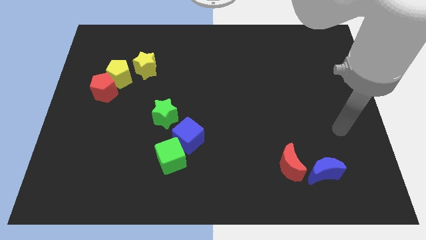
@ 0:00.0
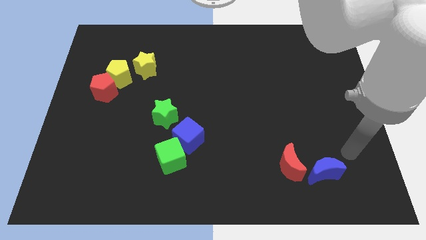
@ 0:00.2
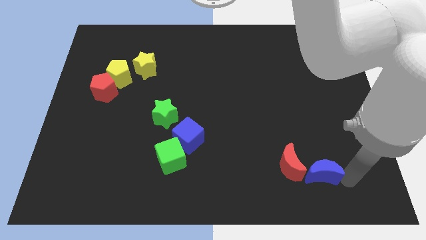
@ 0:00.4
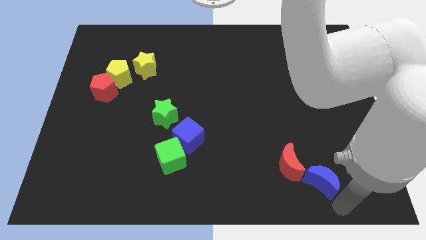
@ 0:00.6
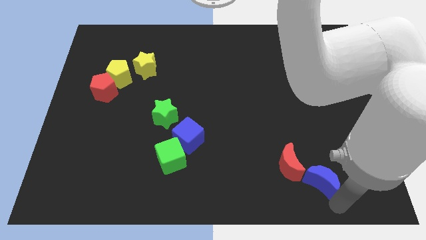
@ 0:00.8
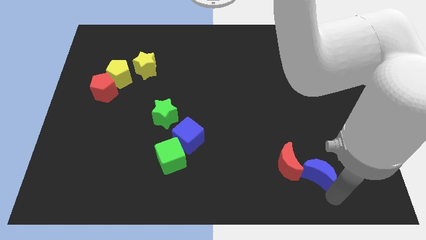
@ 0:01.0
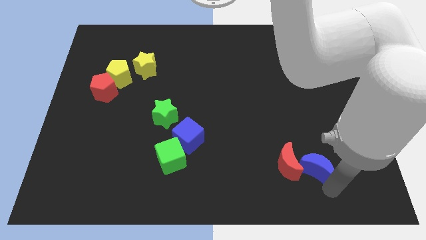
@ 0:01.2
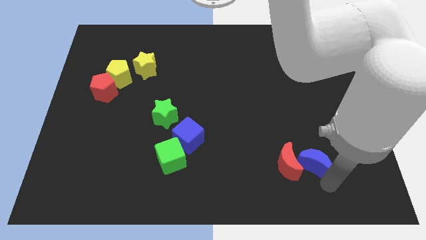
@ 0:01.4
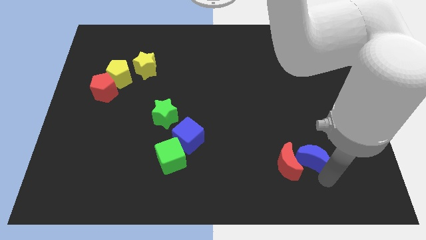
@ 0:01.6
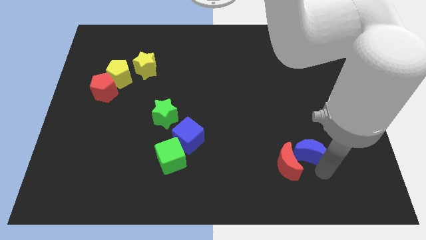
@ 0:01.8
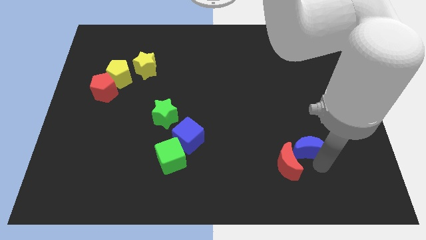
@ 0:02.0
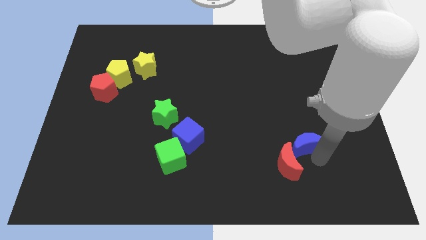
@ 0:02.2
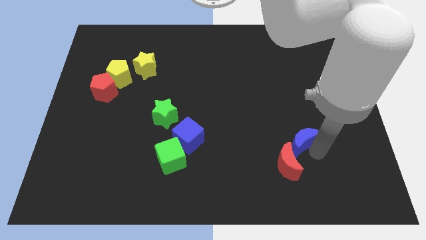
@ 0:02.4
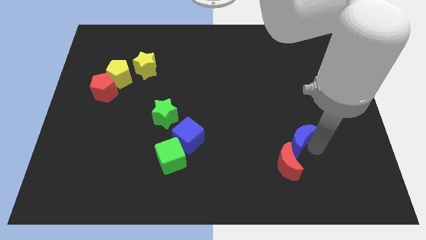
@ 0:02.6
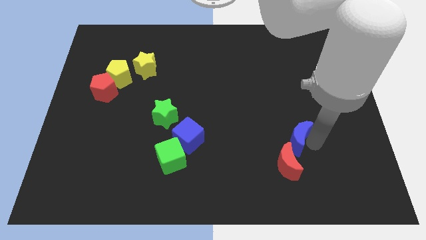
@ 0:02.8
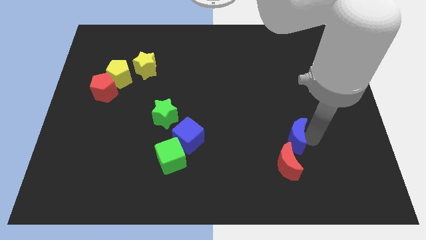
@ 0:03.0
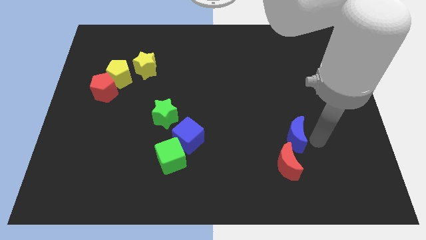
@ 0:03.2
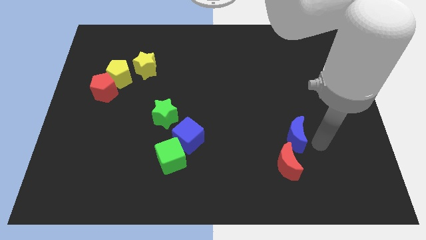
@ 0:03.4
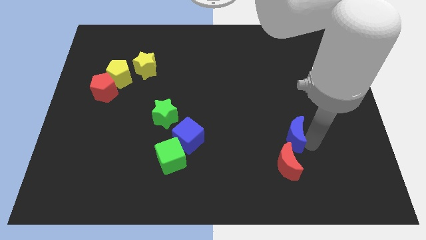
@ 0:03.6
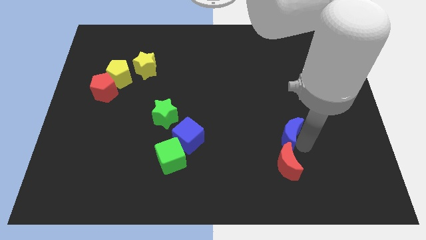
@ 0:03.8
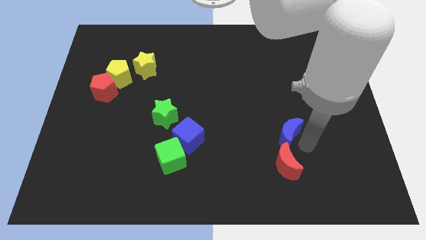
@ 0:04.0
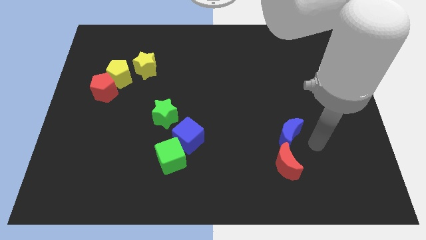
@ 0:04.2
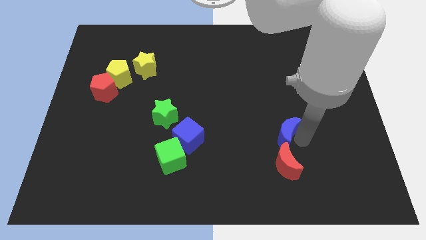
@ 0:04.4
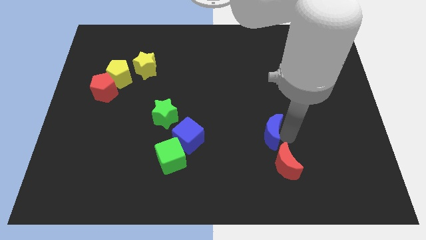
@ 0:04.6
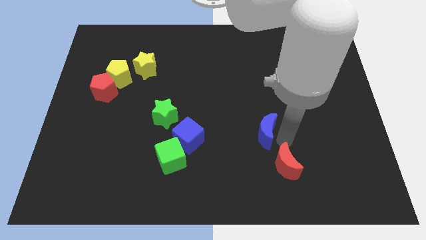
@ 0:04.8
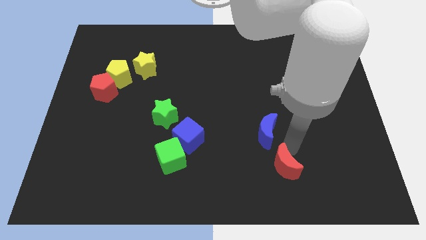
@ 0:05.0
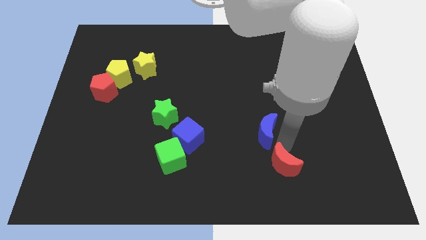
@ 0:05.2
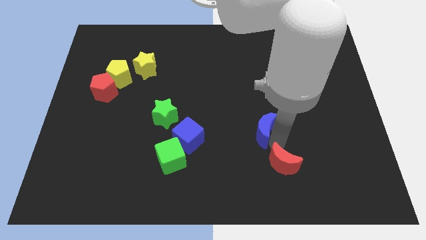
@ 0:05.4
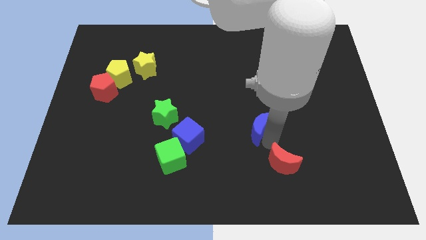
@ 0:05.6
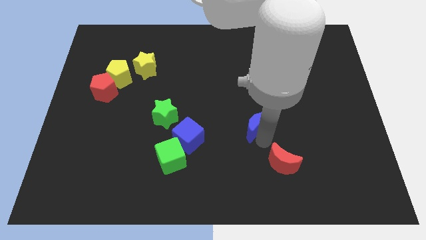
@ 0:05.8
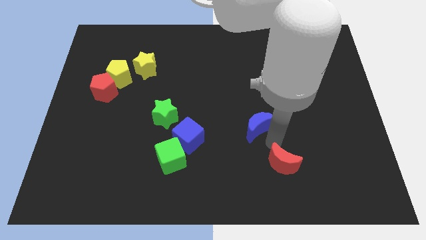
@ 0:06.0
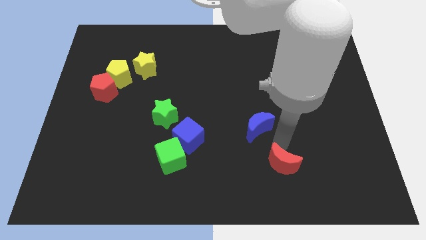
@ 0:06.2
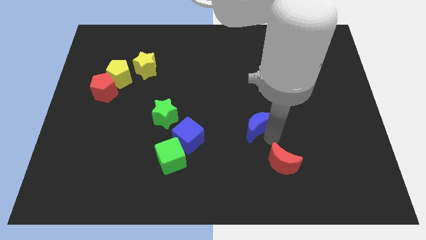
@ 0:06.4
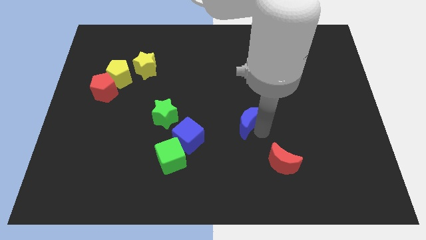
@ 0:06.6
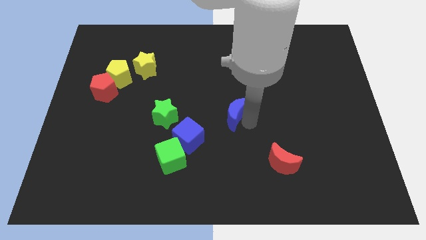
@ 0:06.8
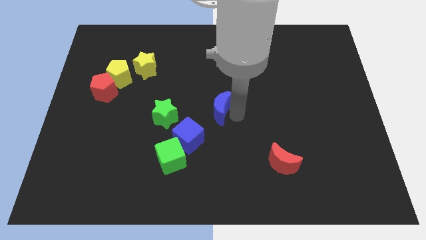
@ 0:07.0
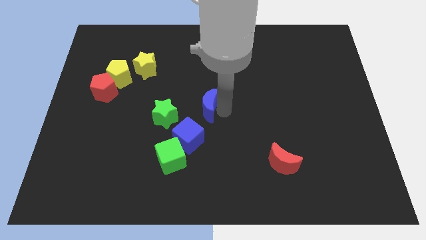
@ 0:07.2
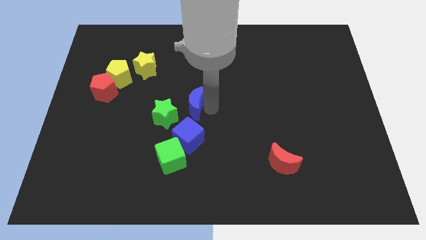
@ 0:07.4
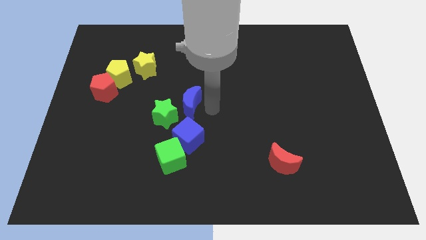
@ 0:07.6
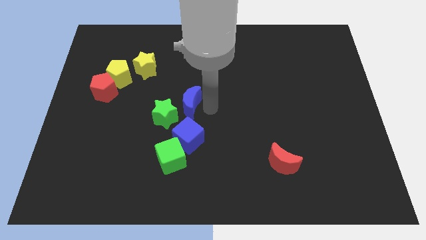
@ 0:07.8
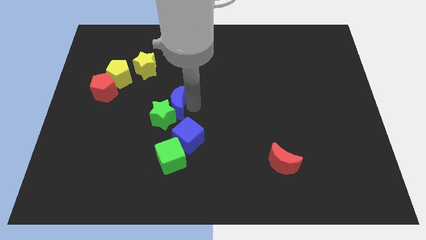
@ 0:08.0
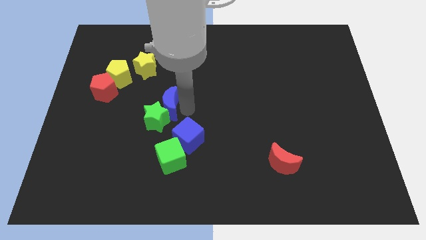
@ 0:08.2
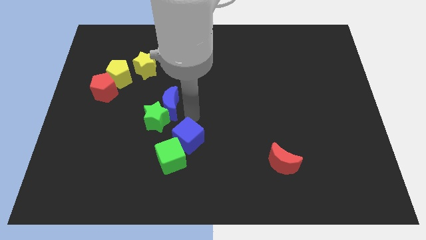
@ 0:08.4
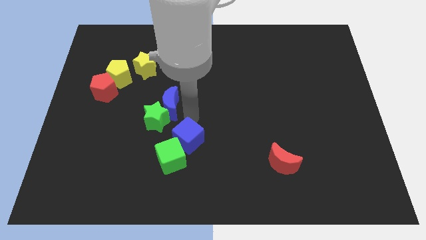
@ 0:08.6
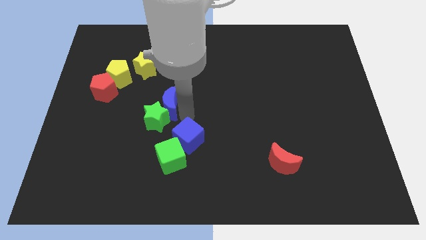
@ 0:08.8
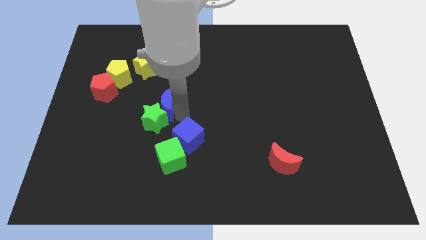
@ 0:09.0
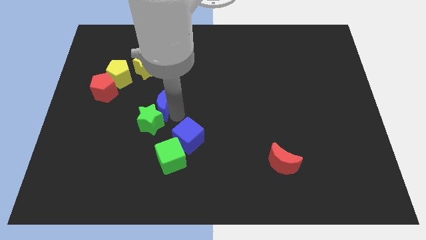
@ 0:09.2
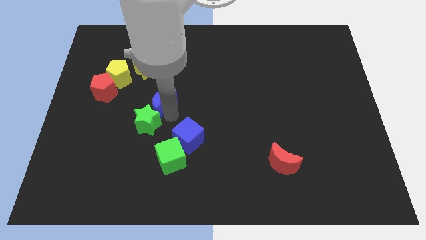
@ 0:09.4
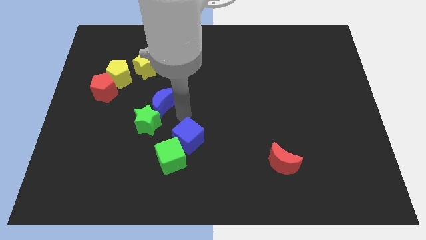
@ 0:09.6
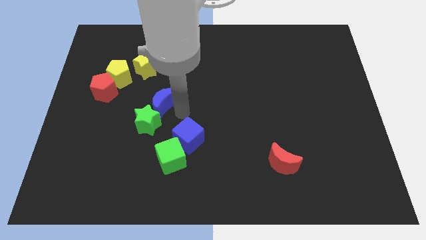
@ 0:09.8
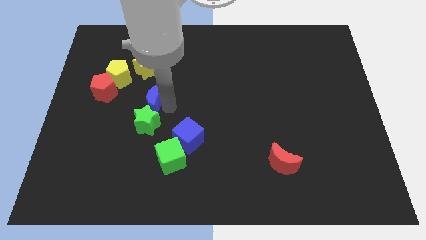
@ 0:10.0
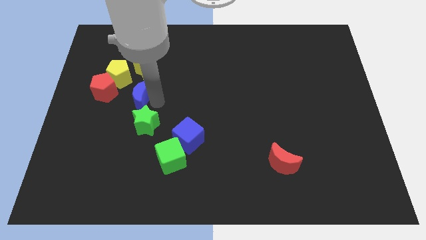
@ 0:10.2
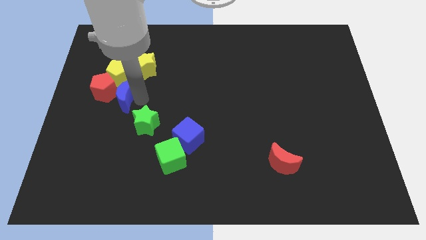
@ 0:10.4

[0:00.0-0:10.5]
push the blue moon towards the red pentagon

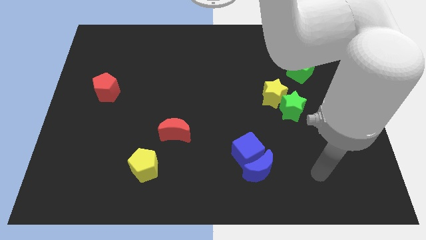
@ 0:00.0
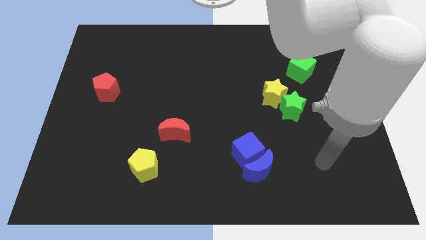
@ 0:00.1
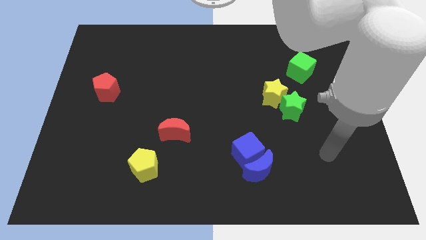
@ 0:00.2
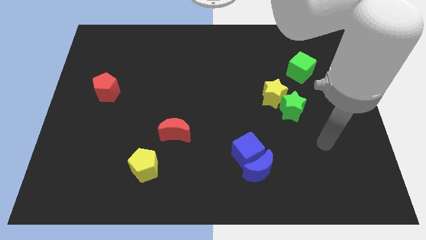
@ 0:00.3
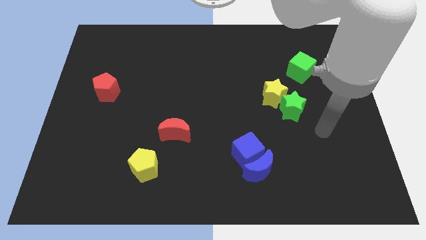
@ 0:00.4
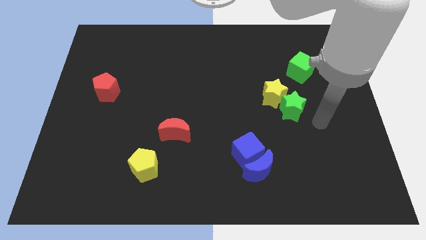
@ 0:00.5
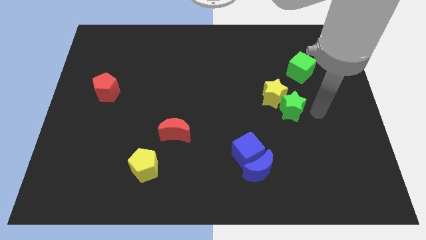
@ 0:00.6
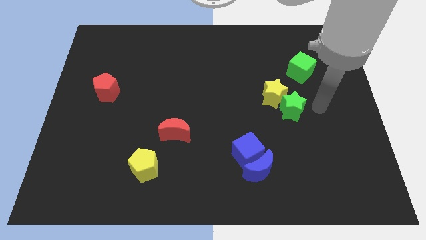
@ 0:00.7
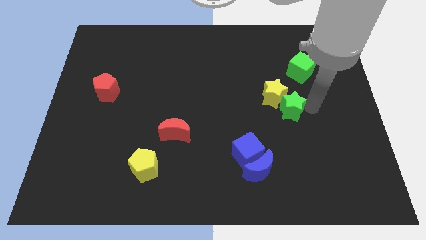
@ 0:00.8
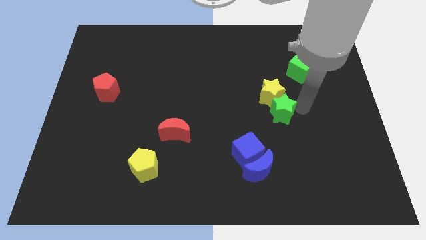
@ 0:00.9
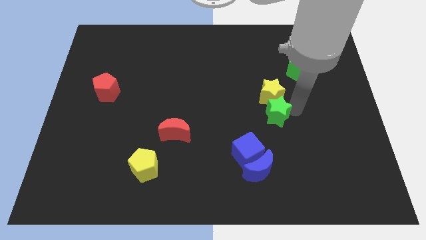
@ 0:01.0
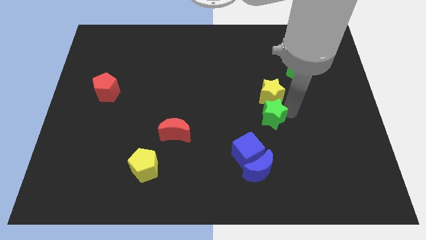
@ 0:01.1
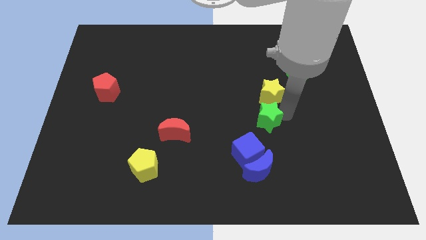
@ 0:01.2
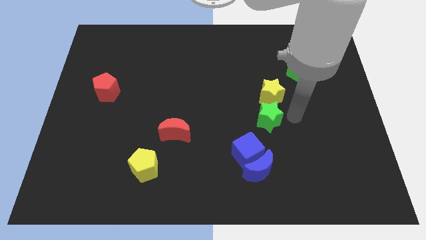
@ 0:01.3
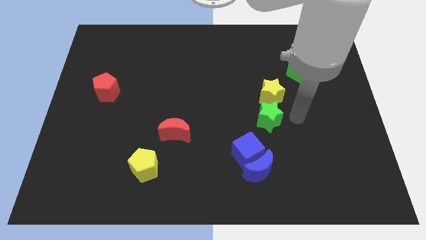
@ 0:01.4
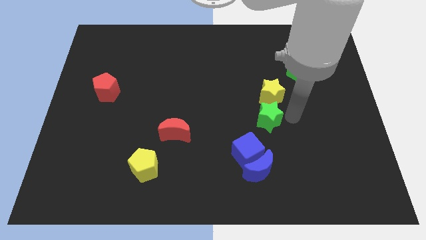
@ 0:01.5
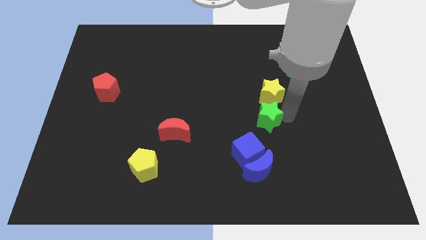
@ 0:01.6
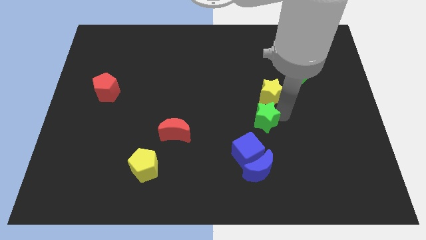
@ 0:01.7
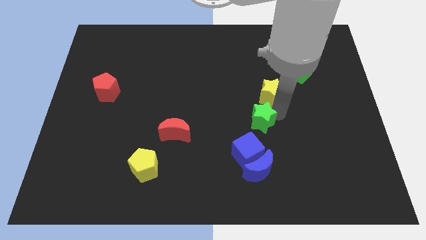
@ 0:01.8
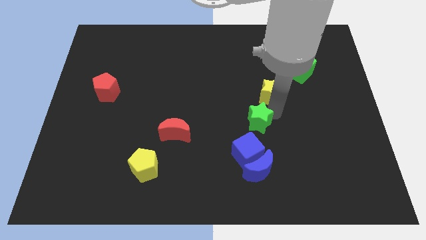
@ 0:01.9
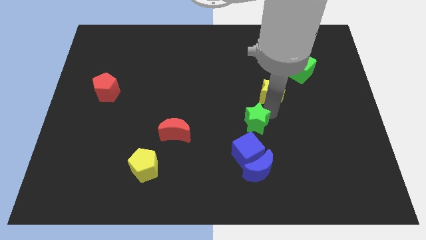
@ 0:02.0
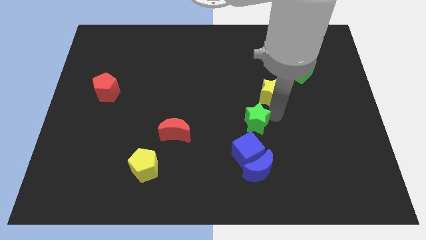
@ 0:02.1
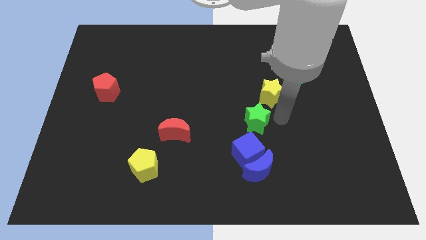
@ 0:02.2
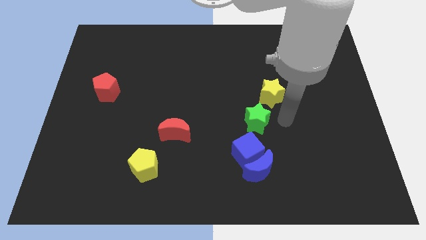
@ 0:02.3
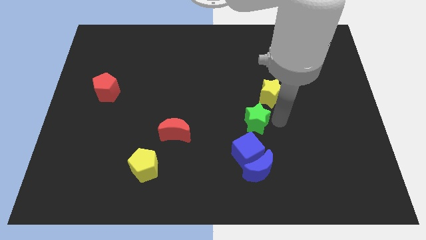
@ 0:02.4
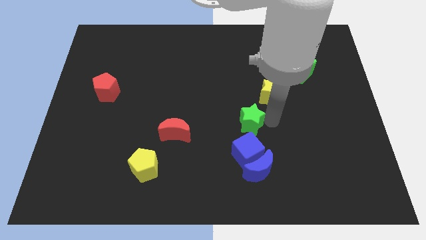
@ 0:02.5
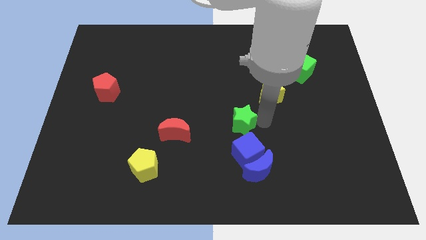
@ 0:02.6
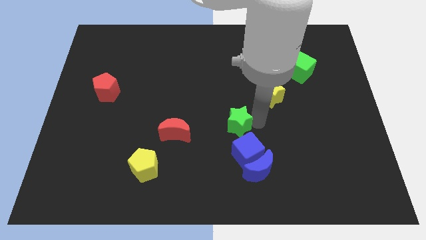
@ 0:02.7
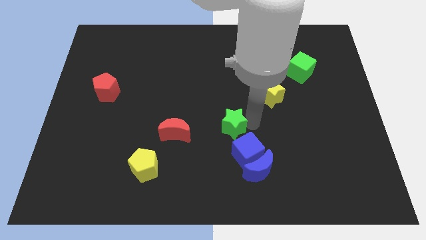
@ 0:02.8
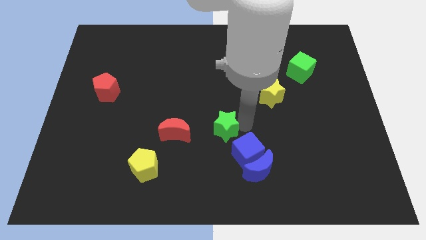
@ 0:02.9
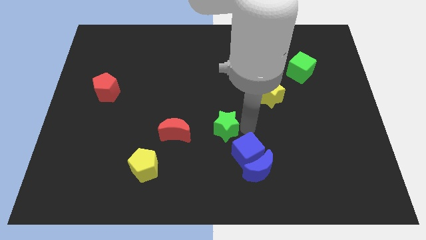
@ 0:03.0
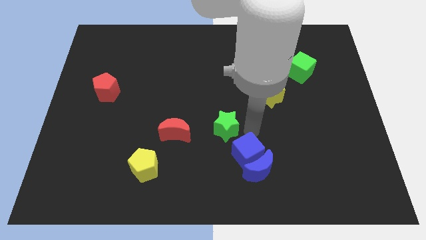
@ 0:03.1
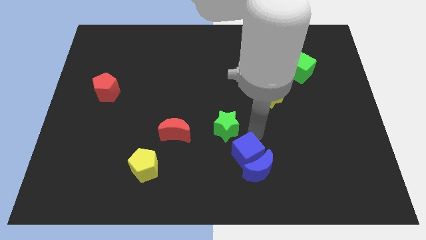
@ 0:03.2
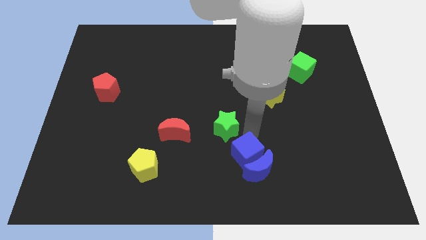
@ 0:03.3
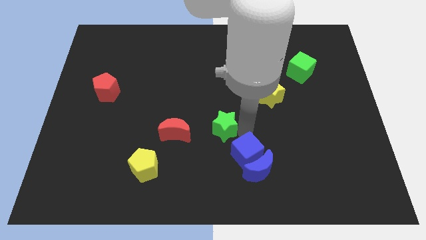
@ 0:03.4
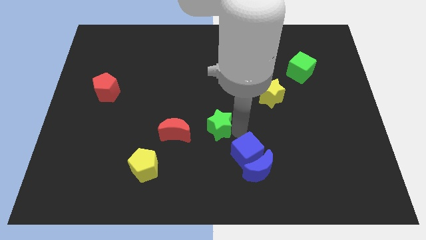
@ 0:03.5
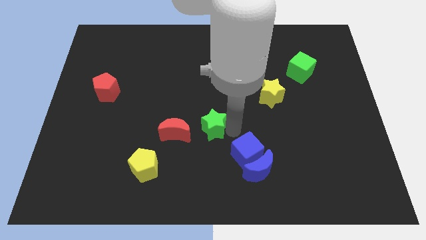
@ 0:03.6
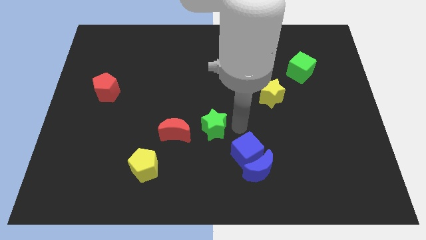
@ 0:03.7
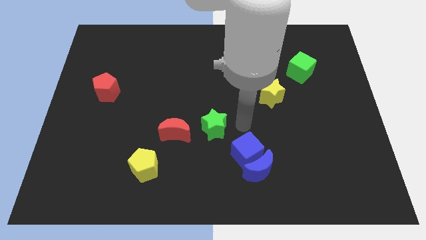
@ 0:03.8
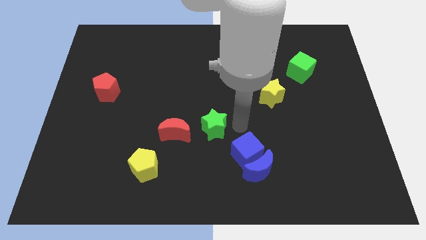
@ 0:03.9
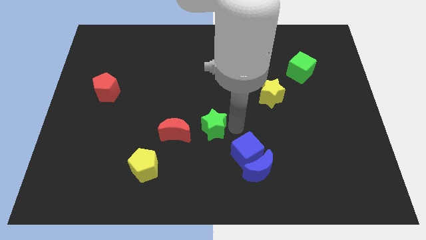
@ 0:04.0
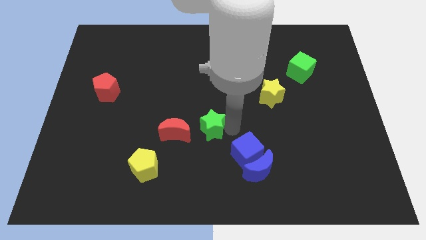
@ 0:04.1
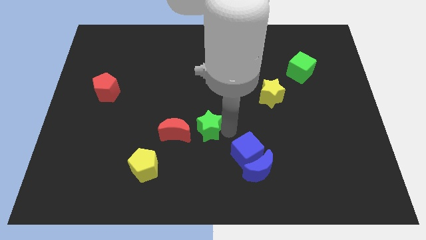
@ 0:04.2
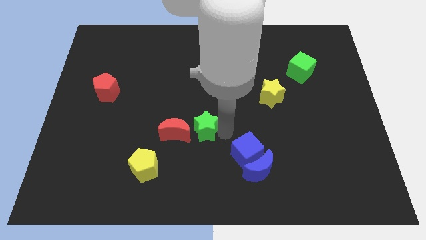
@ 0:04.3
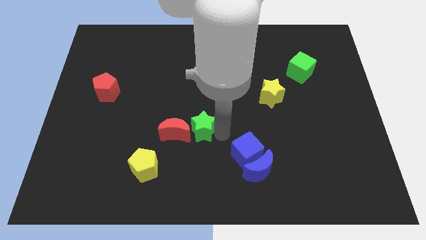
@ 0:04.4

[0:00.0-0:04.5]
move the green star next to the red moon
